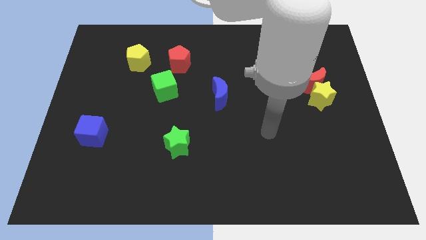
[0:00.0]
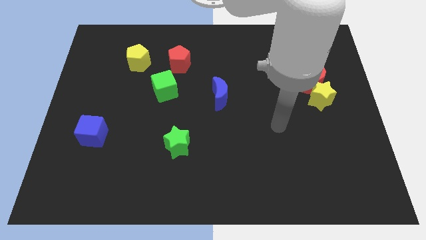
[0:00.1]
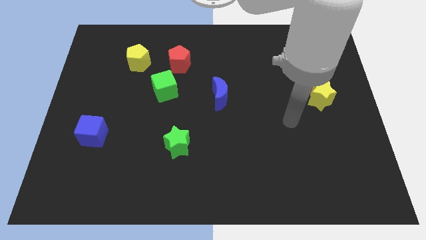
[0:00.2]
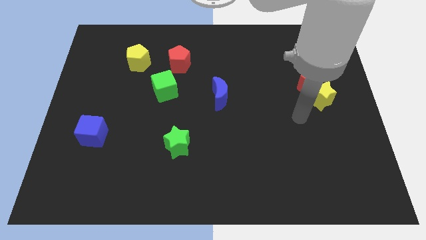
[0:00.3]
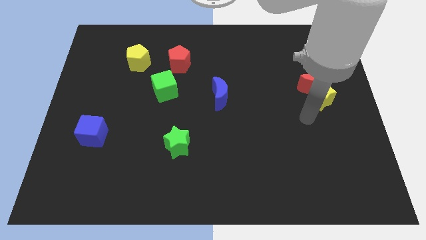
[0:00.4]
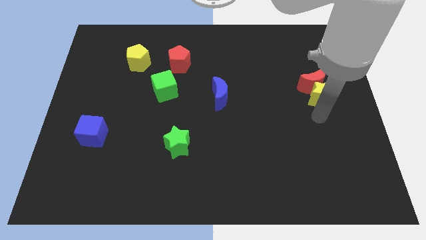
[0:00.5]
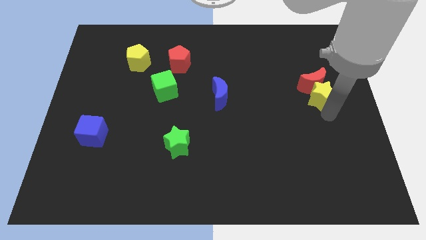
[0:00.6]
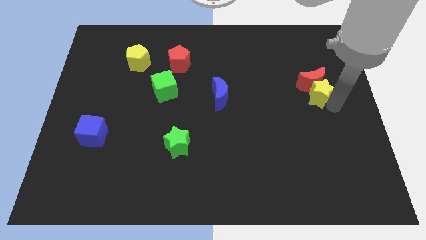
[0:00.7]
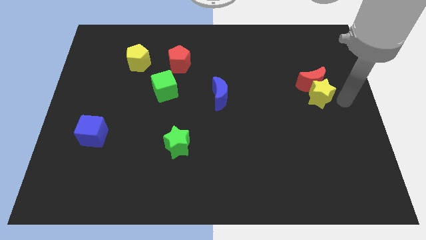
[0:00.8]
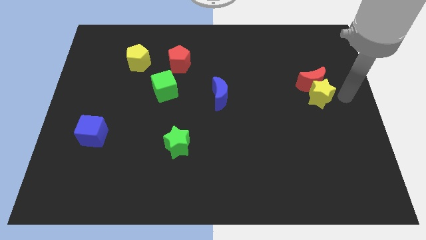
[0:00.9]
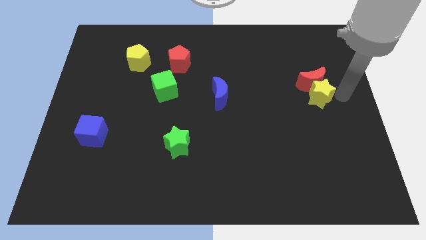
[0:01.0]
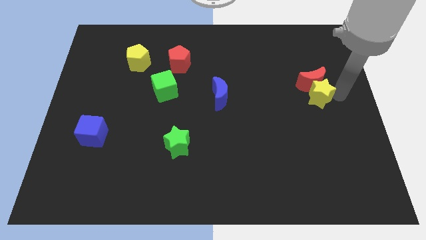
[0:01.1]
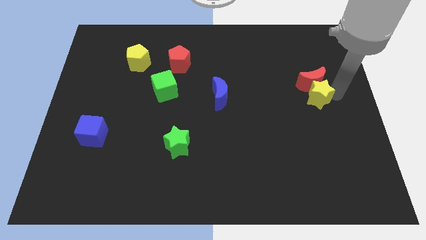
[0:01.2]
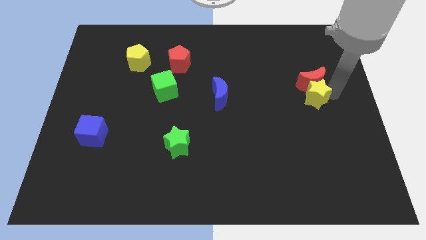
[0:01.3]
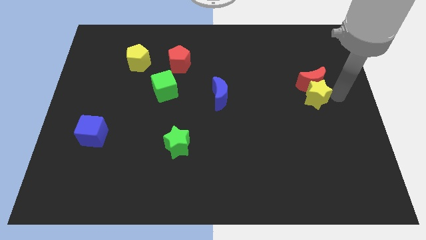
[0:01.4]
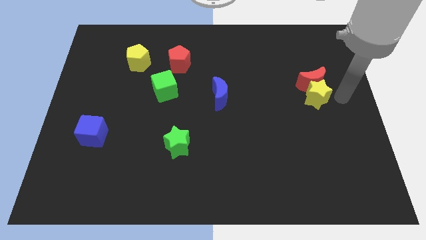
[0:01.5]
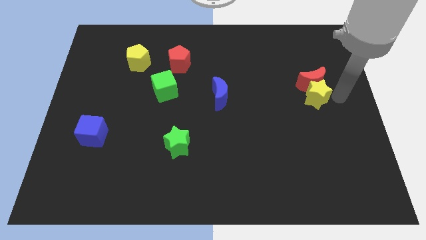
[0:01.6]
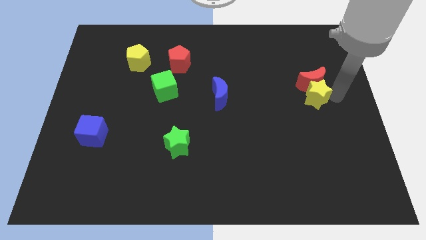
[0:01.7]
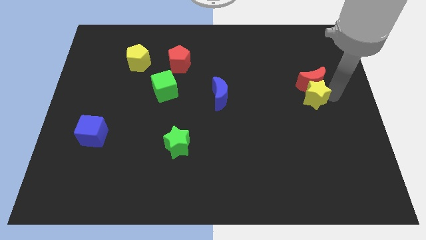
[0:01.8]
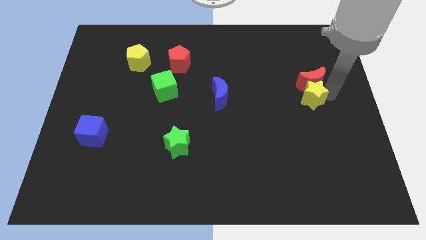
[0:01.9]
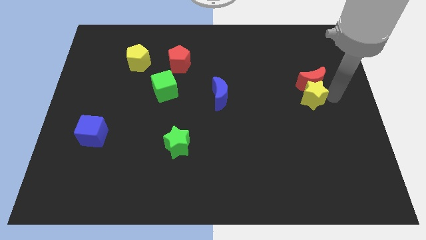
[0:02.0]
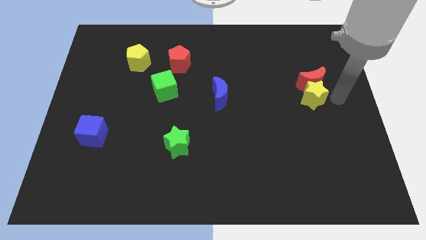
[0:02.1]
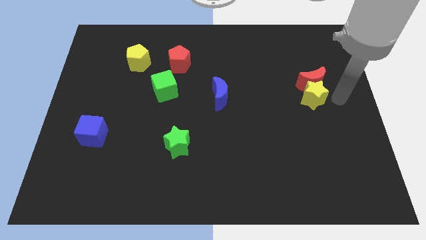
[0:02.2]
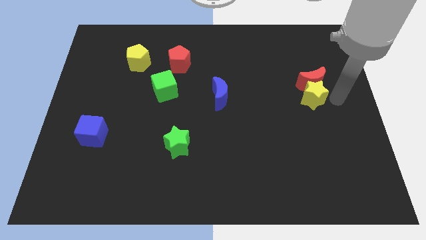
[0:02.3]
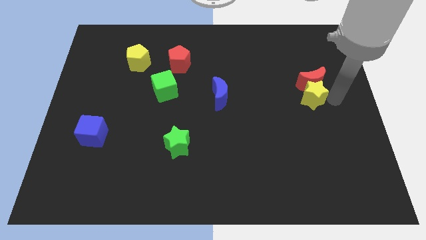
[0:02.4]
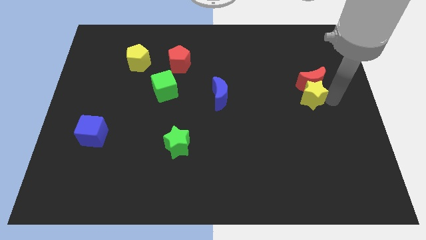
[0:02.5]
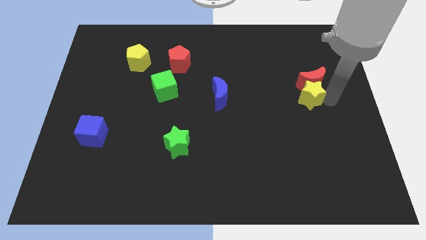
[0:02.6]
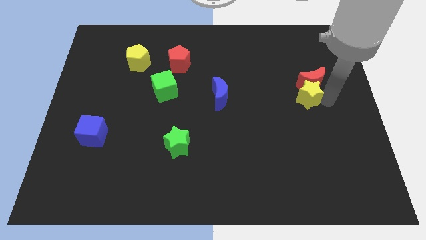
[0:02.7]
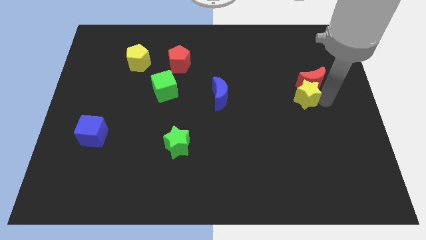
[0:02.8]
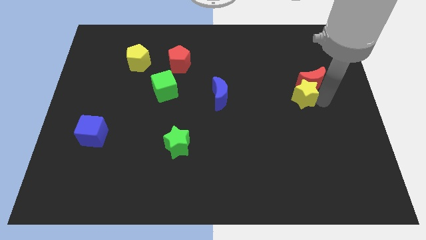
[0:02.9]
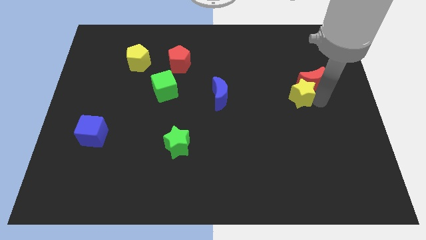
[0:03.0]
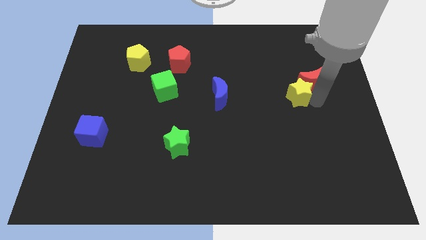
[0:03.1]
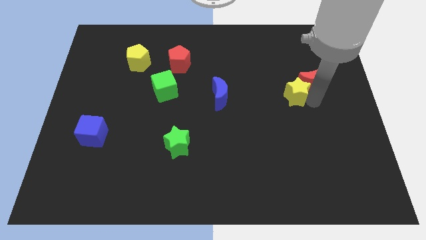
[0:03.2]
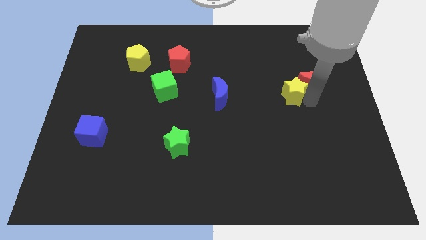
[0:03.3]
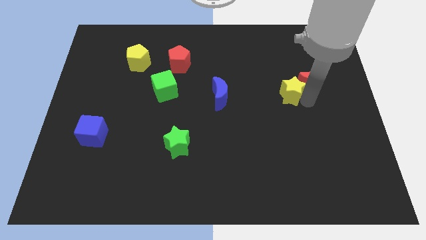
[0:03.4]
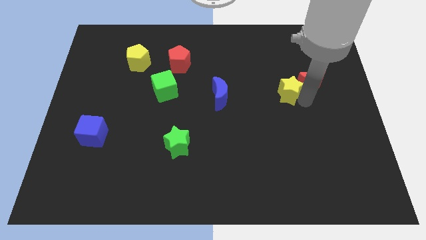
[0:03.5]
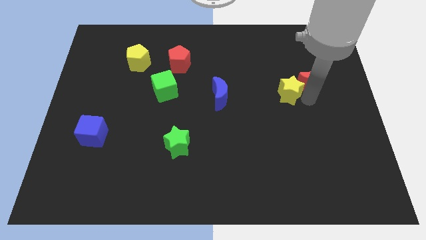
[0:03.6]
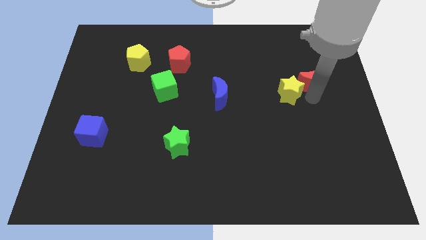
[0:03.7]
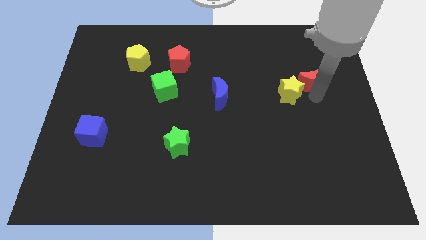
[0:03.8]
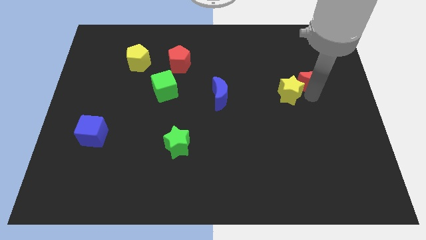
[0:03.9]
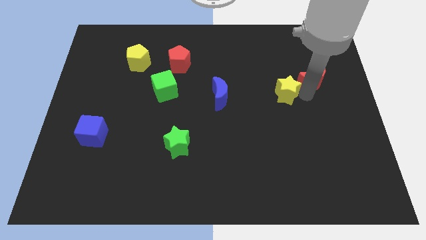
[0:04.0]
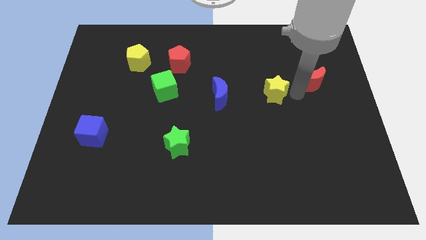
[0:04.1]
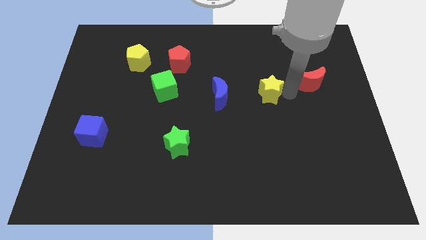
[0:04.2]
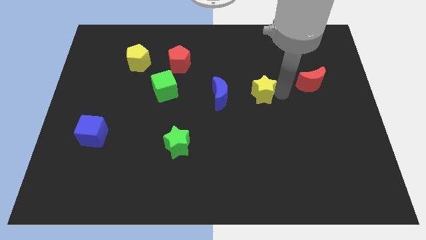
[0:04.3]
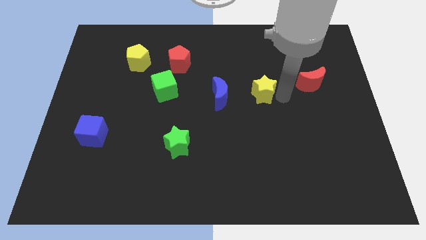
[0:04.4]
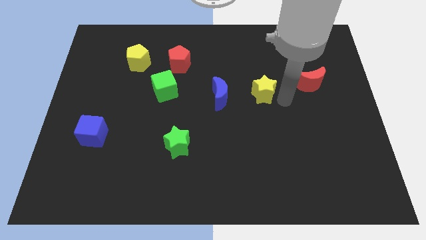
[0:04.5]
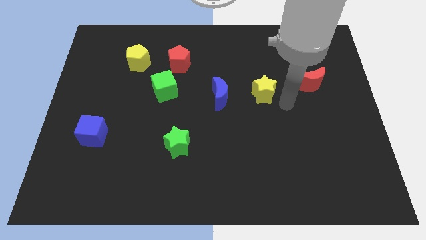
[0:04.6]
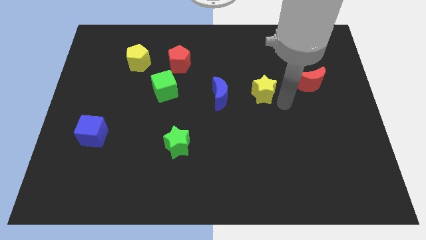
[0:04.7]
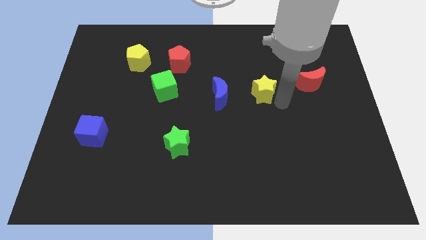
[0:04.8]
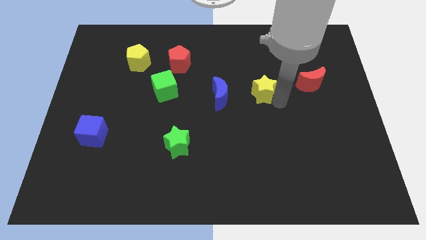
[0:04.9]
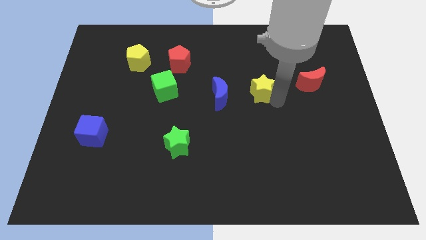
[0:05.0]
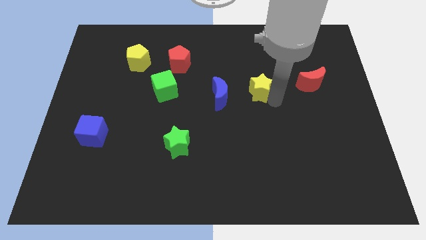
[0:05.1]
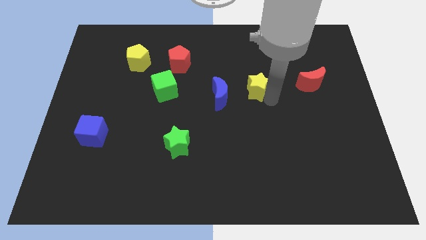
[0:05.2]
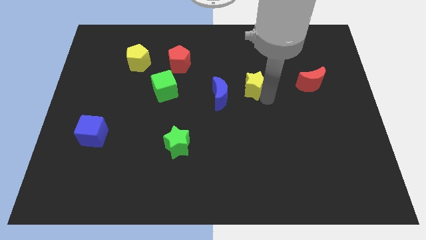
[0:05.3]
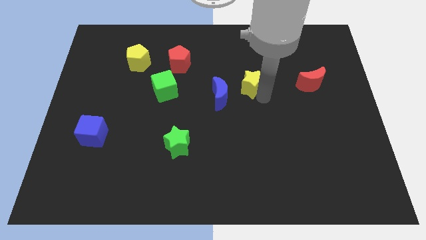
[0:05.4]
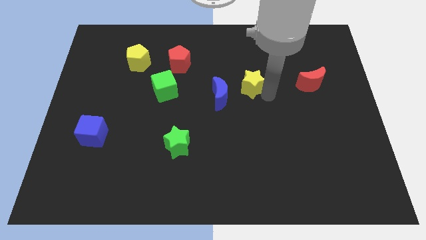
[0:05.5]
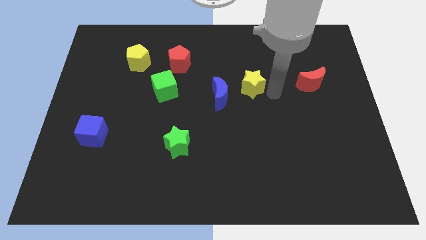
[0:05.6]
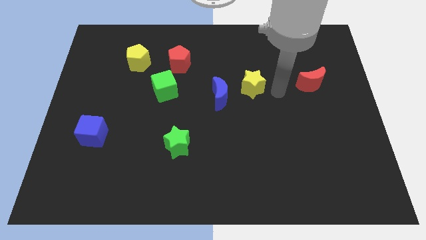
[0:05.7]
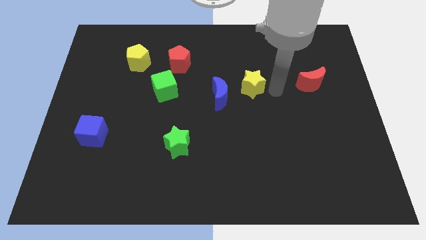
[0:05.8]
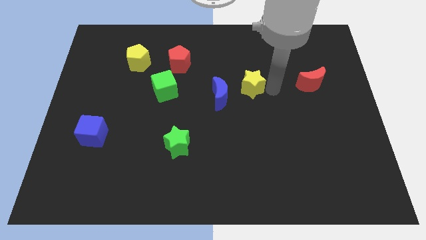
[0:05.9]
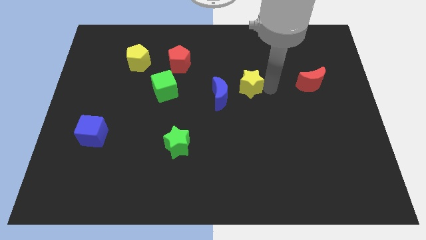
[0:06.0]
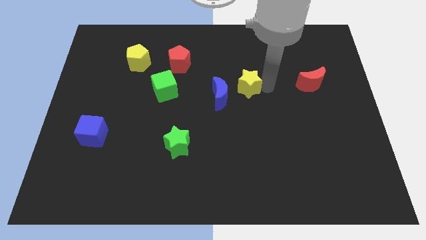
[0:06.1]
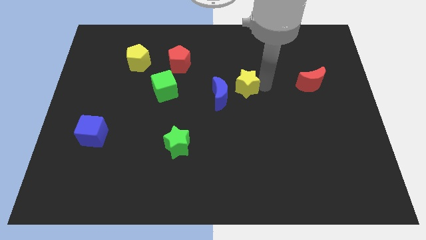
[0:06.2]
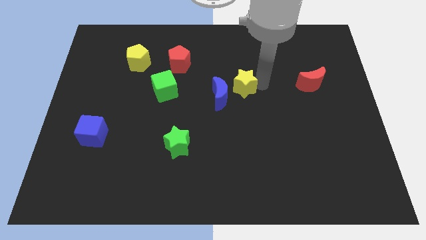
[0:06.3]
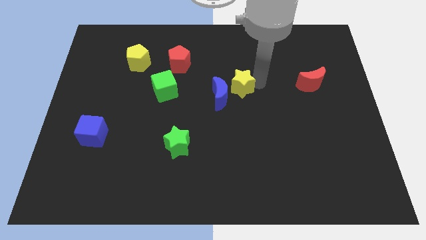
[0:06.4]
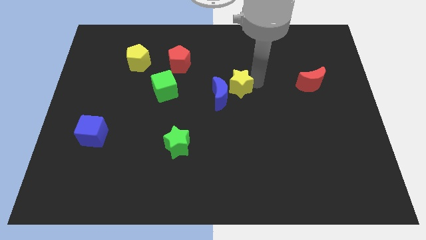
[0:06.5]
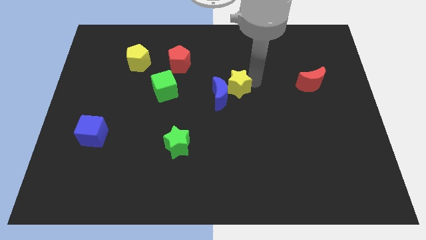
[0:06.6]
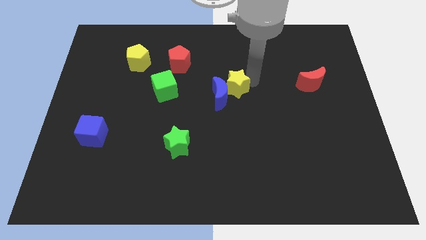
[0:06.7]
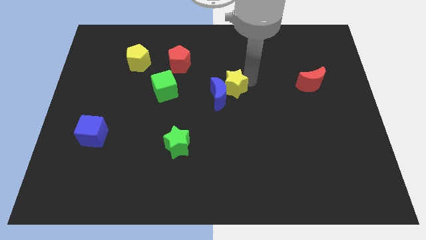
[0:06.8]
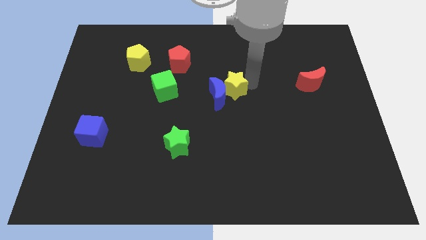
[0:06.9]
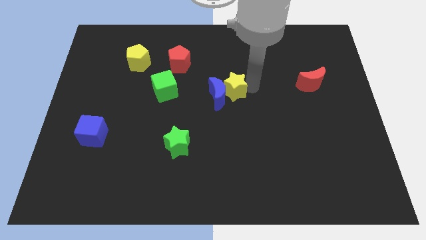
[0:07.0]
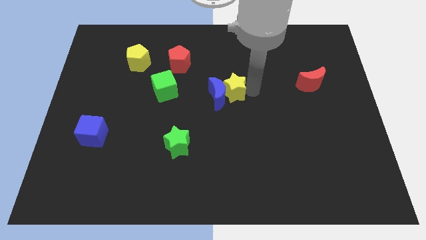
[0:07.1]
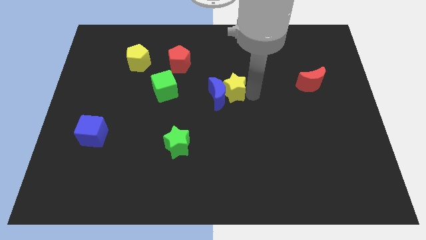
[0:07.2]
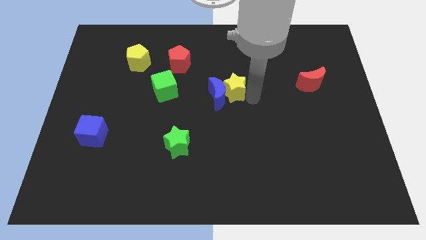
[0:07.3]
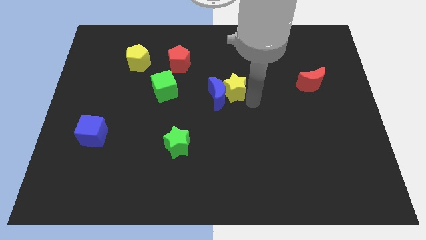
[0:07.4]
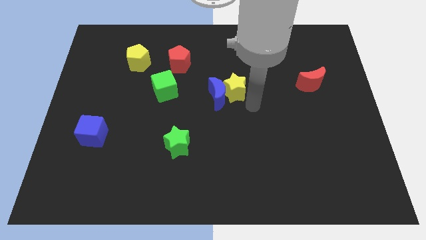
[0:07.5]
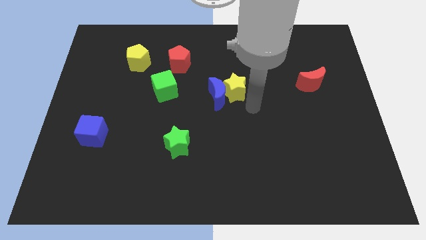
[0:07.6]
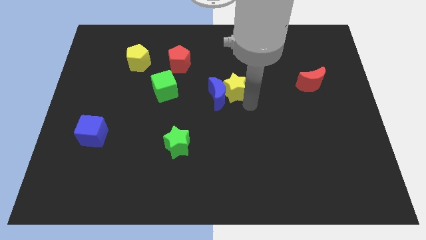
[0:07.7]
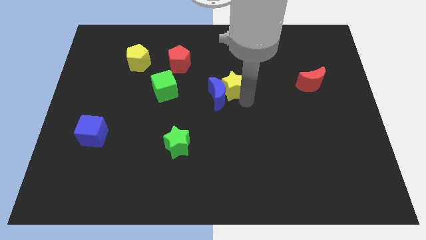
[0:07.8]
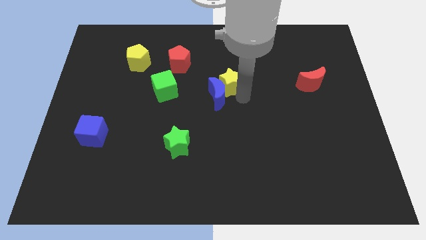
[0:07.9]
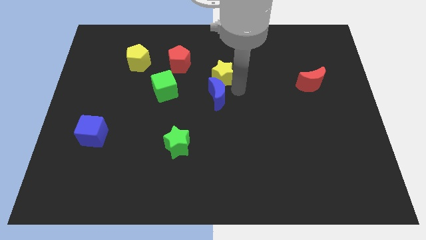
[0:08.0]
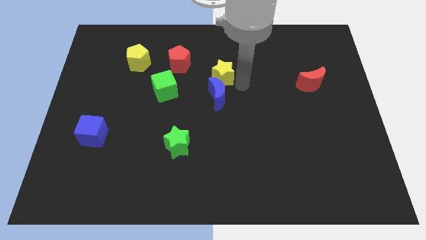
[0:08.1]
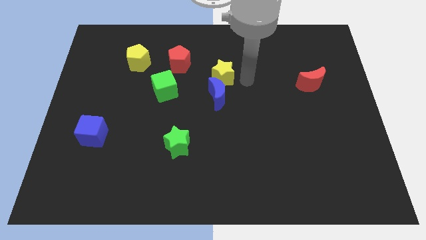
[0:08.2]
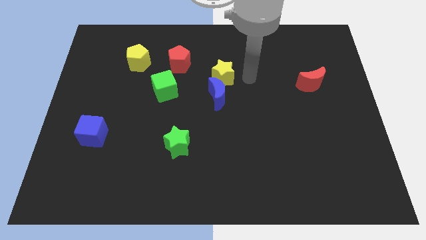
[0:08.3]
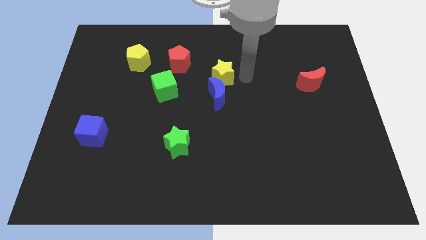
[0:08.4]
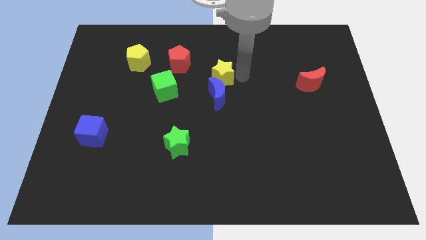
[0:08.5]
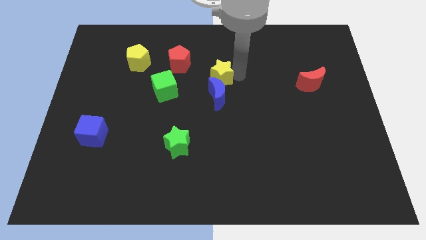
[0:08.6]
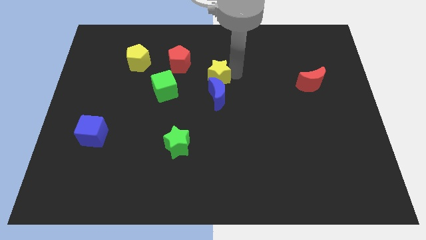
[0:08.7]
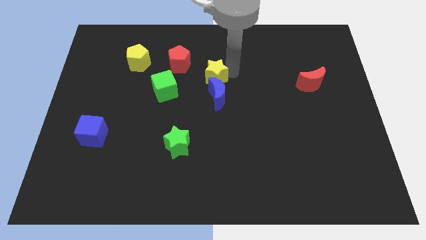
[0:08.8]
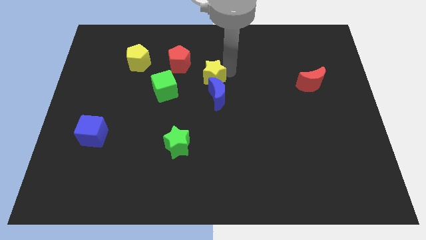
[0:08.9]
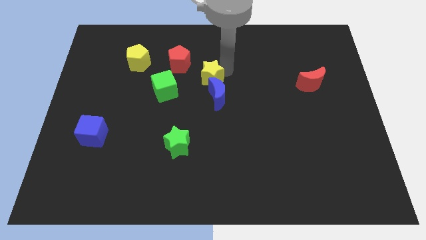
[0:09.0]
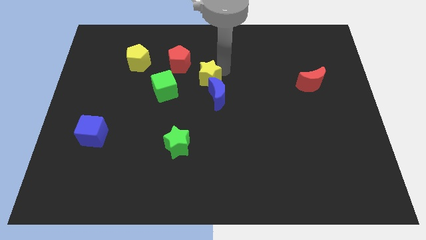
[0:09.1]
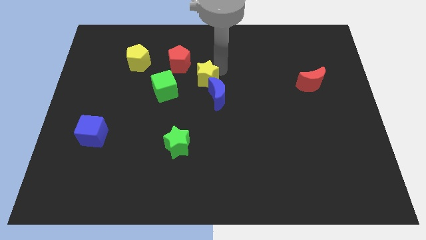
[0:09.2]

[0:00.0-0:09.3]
put the yellow star to the top right of the green cube
